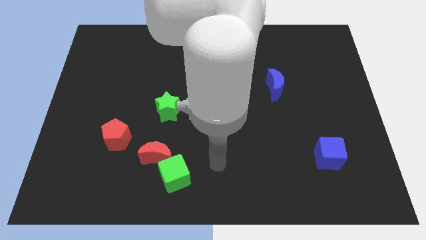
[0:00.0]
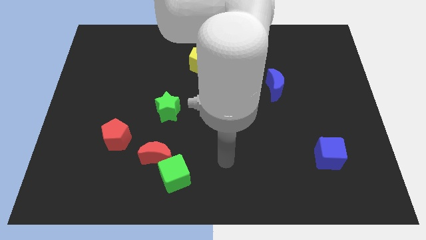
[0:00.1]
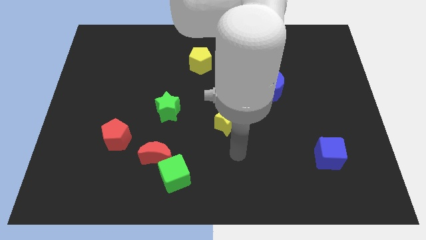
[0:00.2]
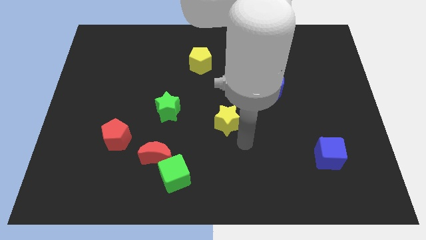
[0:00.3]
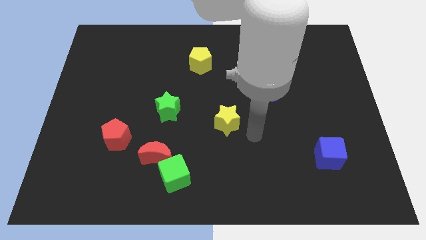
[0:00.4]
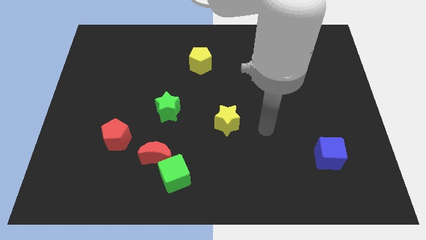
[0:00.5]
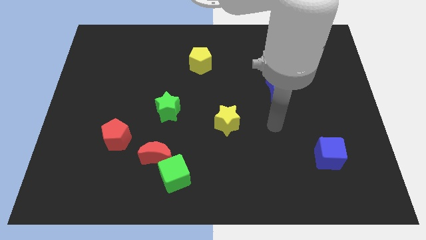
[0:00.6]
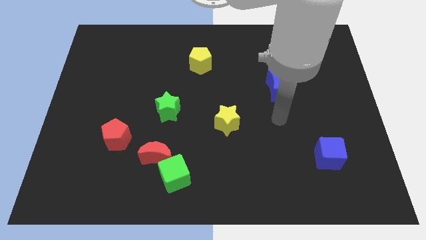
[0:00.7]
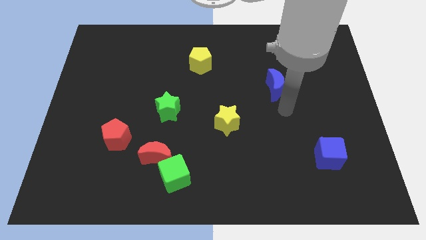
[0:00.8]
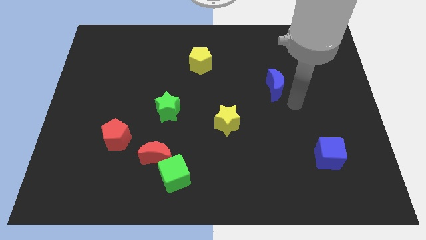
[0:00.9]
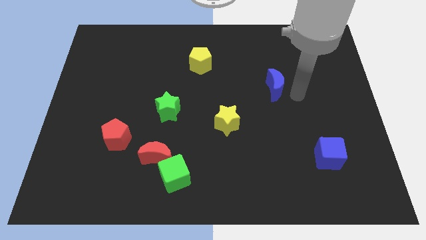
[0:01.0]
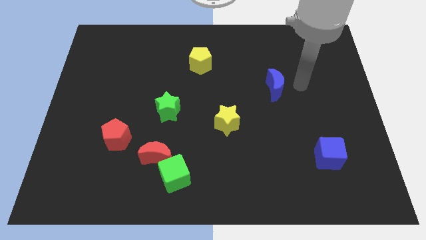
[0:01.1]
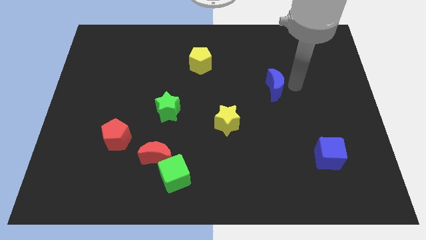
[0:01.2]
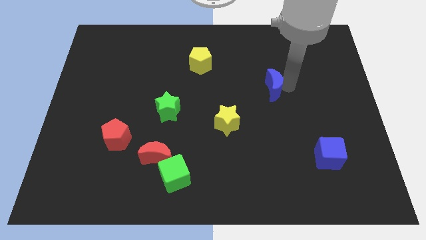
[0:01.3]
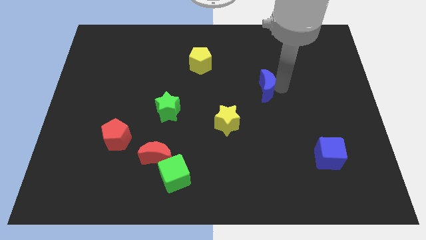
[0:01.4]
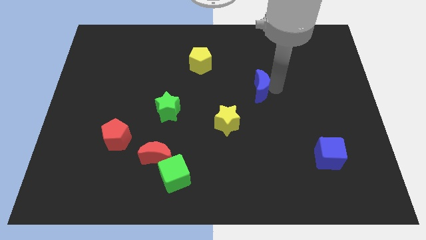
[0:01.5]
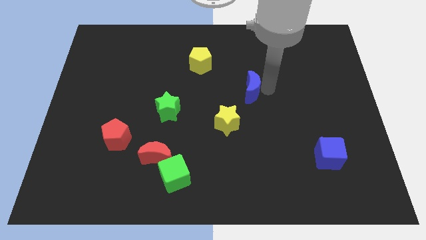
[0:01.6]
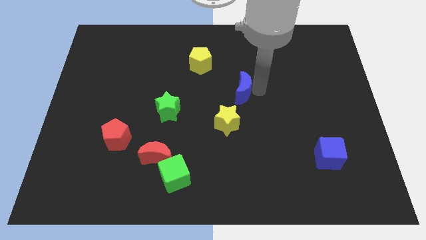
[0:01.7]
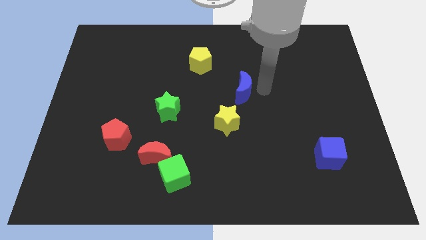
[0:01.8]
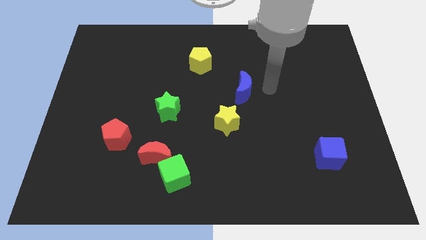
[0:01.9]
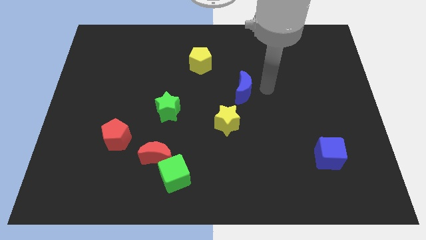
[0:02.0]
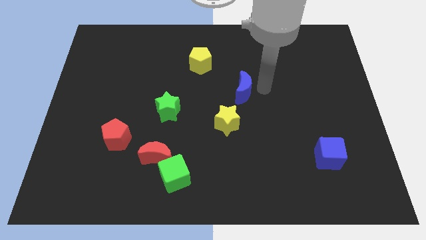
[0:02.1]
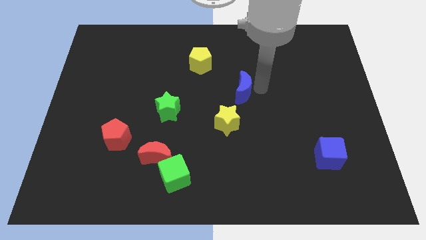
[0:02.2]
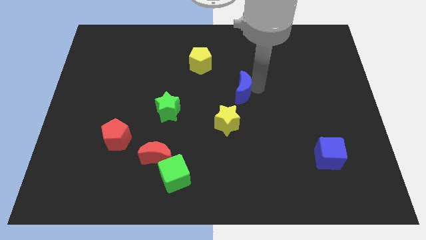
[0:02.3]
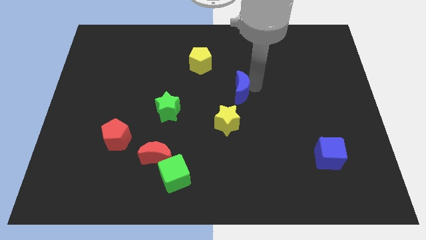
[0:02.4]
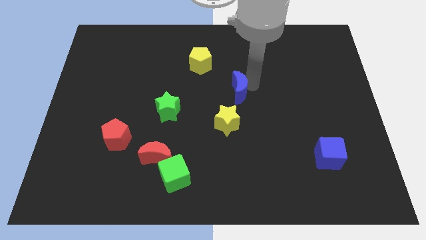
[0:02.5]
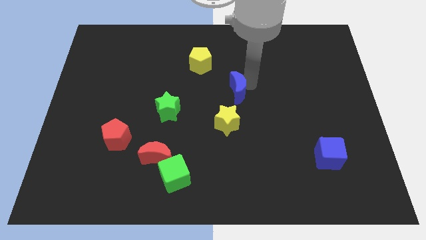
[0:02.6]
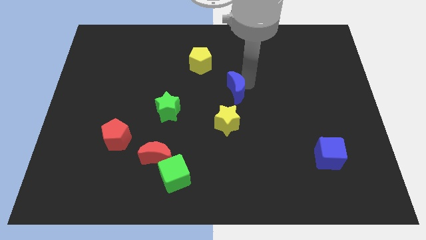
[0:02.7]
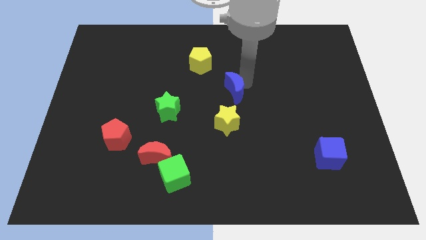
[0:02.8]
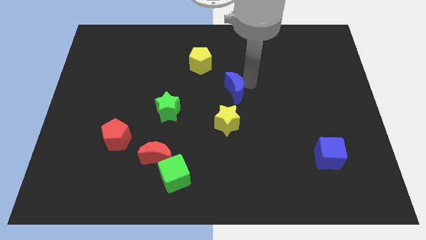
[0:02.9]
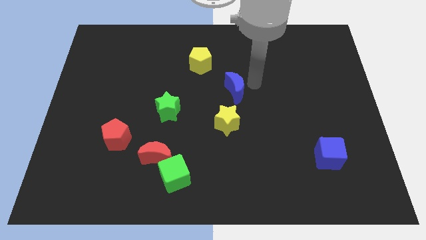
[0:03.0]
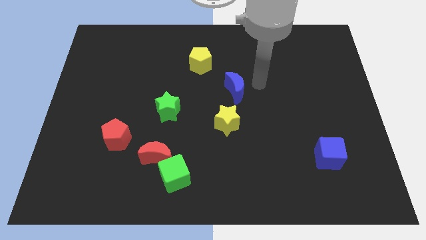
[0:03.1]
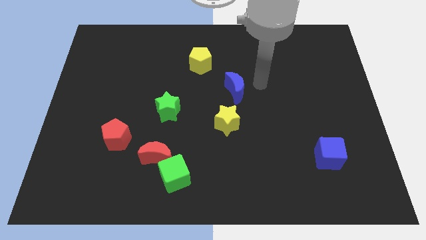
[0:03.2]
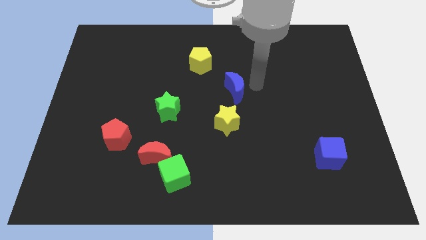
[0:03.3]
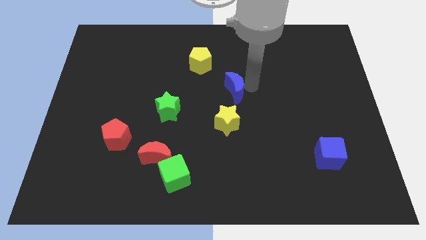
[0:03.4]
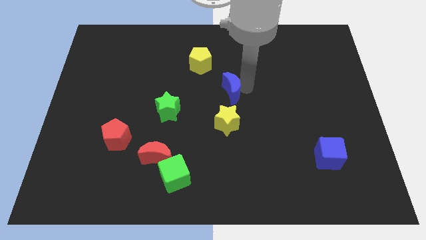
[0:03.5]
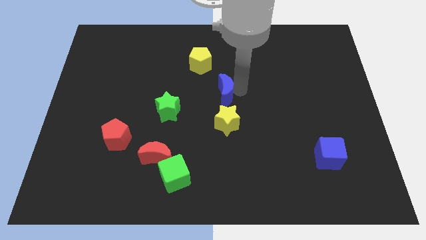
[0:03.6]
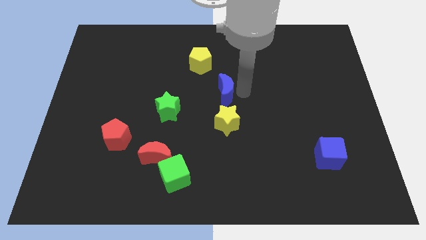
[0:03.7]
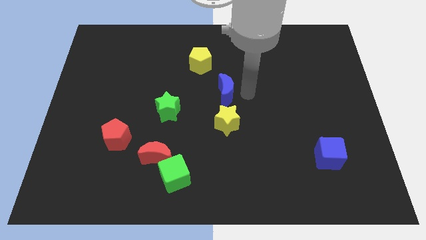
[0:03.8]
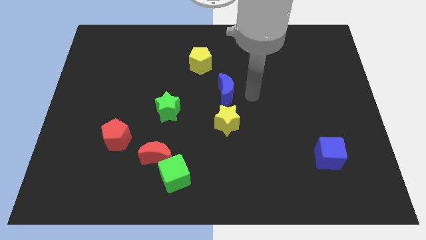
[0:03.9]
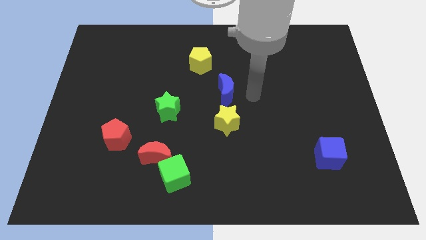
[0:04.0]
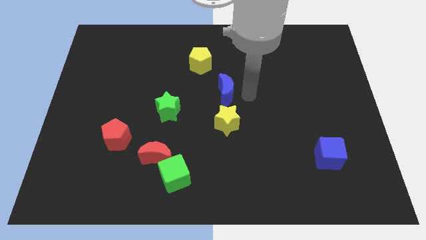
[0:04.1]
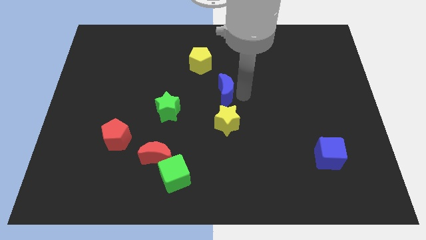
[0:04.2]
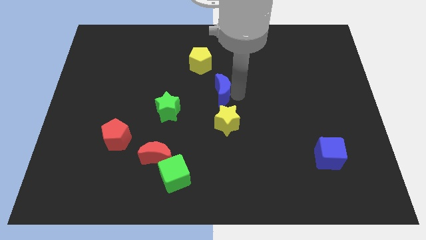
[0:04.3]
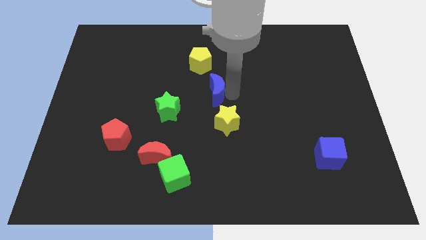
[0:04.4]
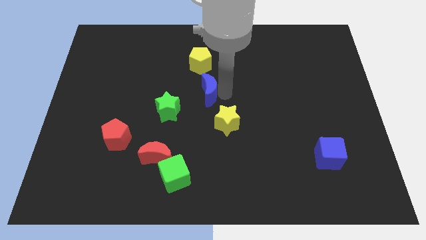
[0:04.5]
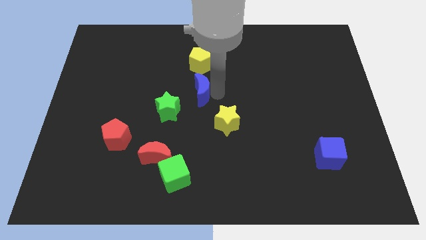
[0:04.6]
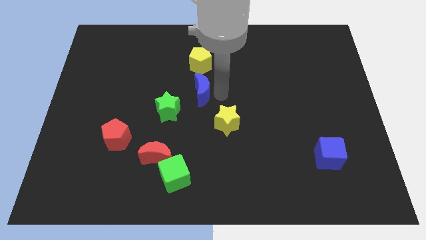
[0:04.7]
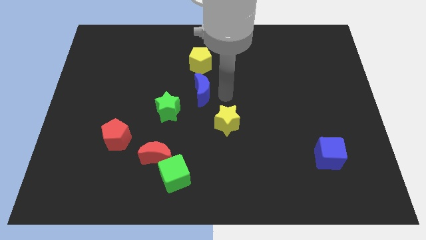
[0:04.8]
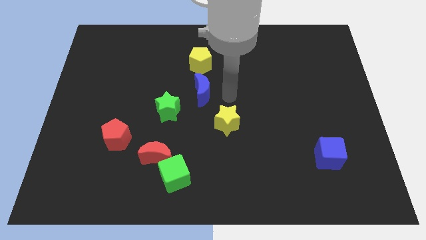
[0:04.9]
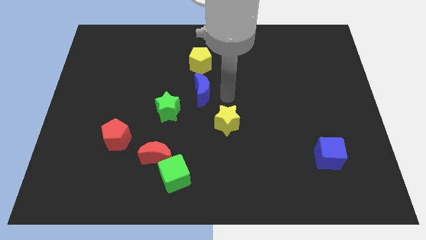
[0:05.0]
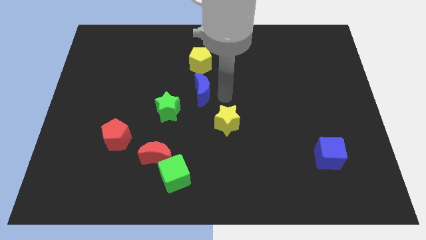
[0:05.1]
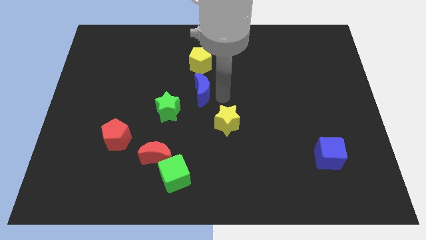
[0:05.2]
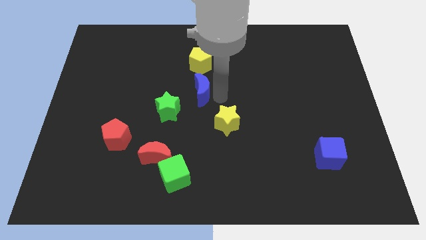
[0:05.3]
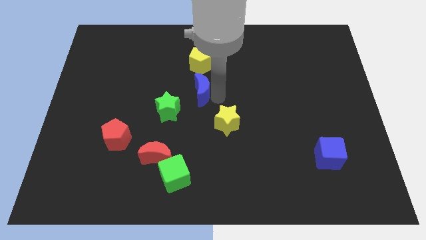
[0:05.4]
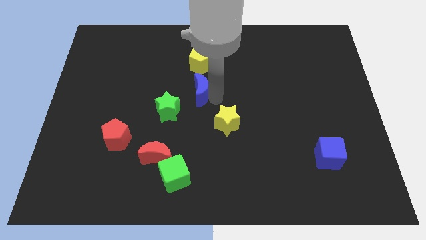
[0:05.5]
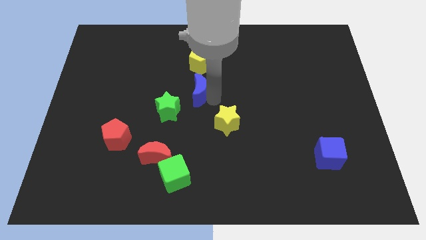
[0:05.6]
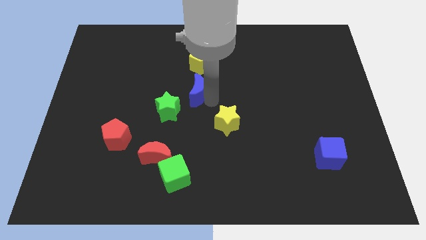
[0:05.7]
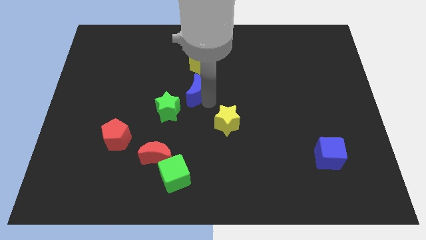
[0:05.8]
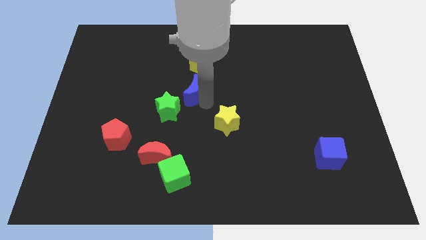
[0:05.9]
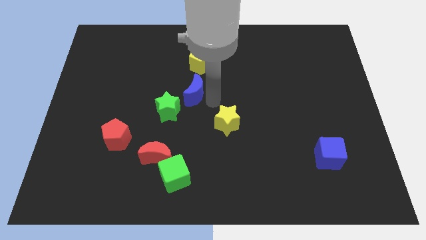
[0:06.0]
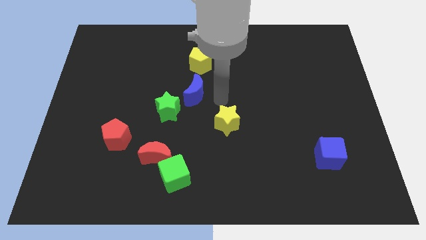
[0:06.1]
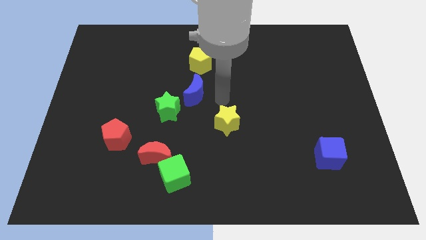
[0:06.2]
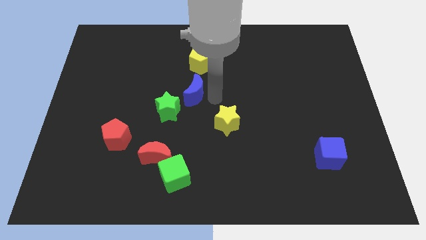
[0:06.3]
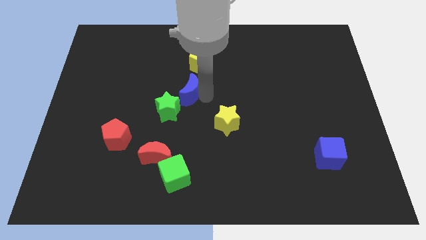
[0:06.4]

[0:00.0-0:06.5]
slide the blue moon left

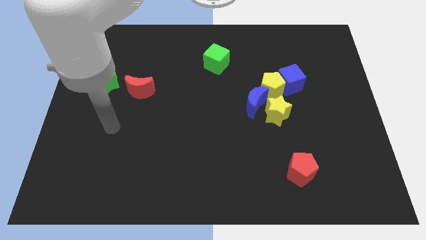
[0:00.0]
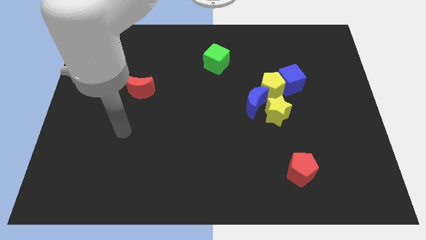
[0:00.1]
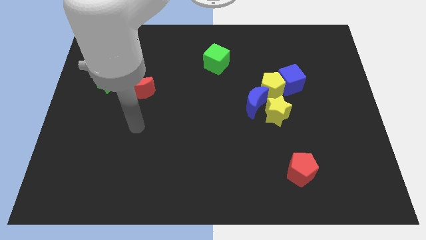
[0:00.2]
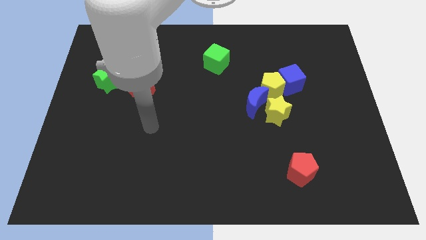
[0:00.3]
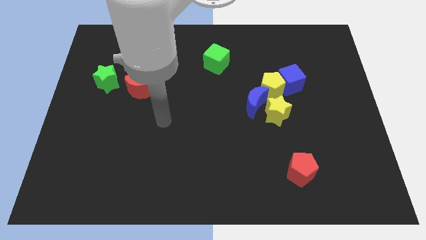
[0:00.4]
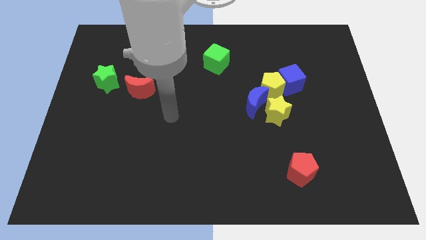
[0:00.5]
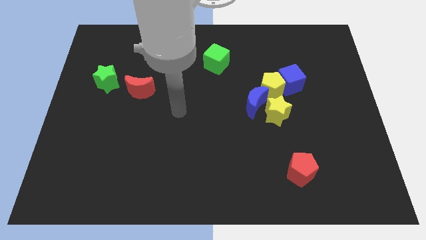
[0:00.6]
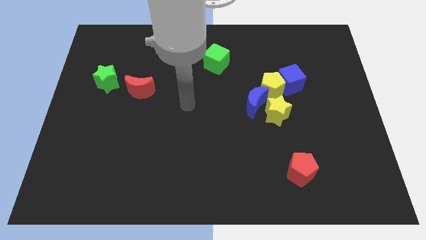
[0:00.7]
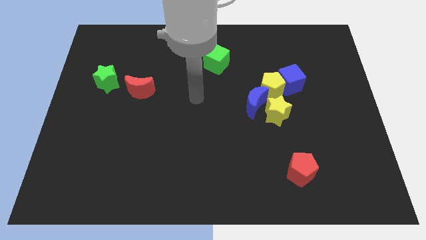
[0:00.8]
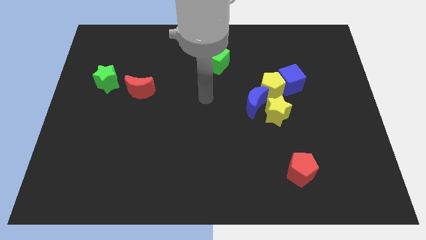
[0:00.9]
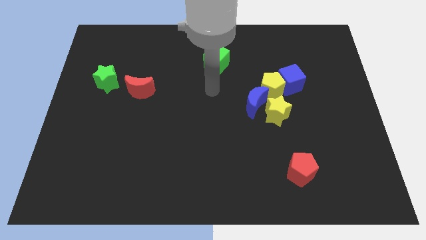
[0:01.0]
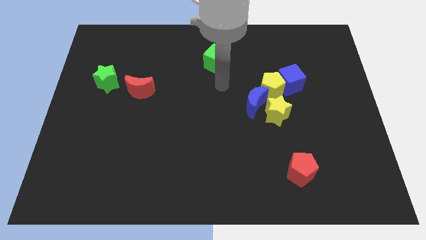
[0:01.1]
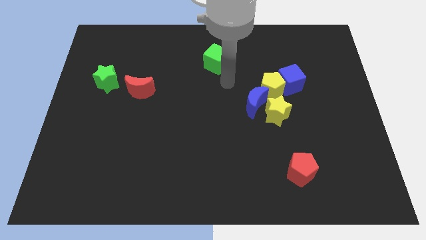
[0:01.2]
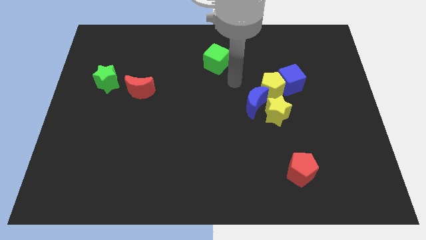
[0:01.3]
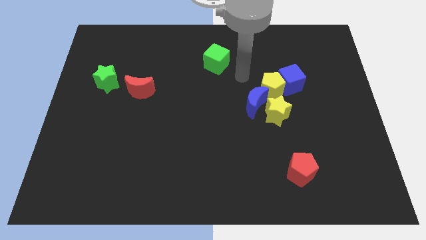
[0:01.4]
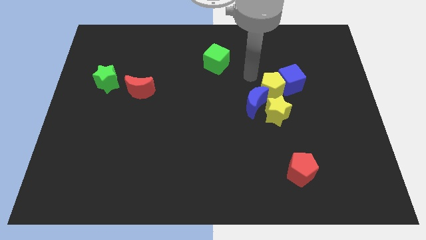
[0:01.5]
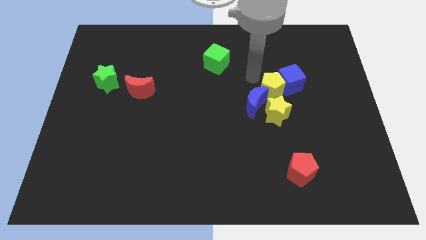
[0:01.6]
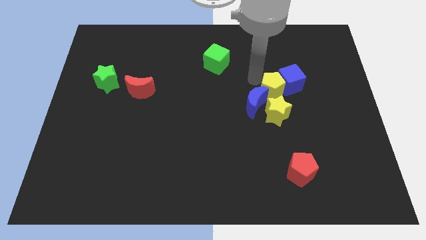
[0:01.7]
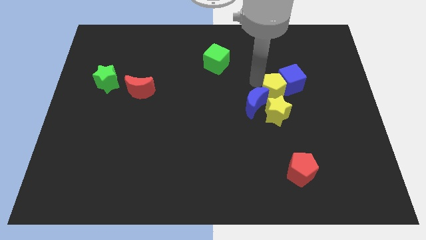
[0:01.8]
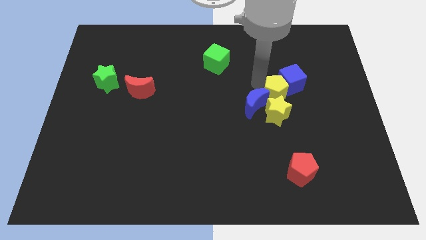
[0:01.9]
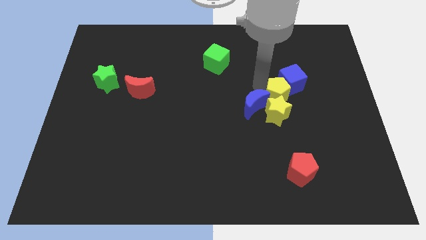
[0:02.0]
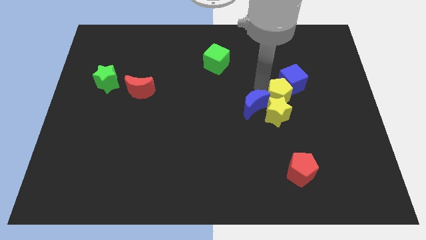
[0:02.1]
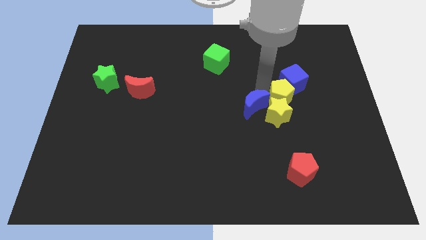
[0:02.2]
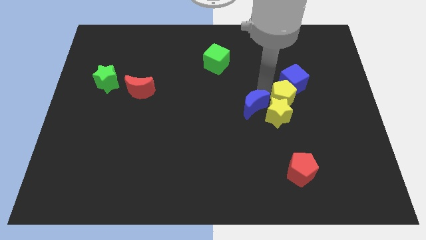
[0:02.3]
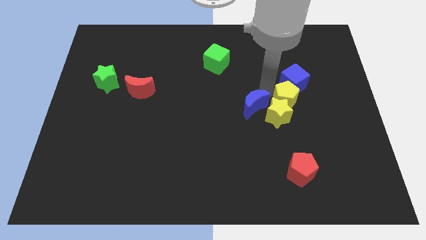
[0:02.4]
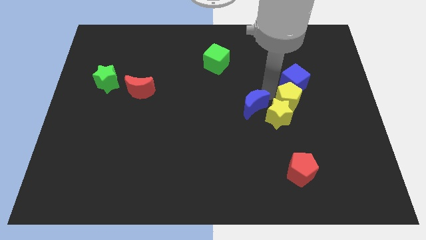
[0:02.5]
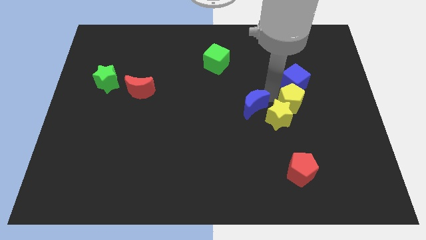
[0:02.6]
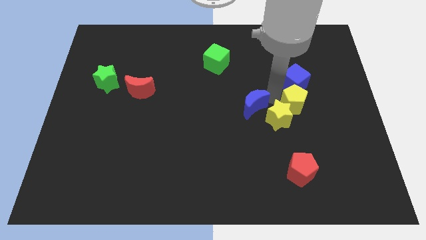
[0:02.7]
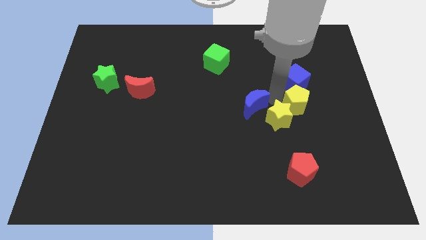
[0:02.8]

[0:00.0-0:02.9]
push the yellow pentagon down and right diagonally somewhat
